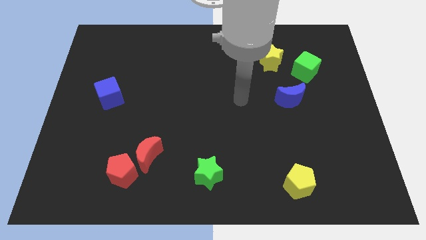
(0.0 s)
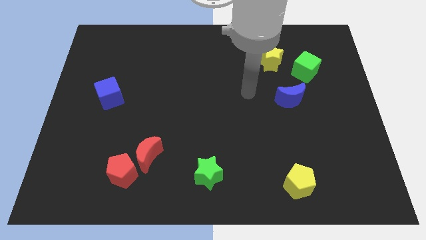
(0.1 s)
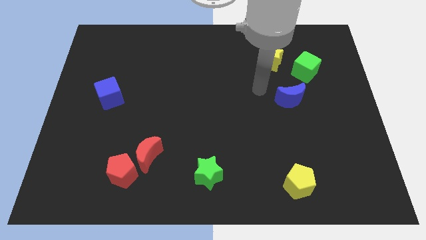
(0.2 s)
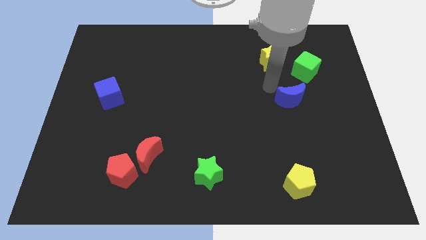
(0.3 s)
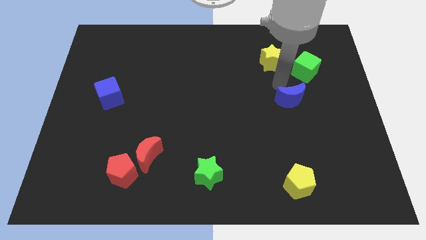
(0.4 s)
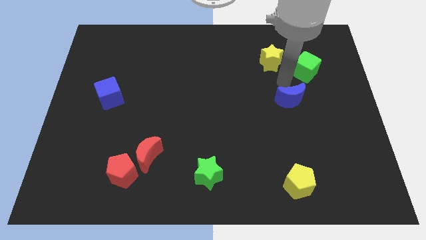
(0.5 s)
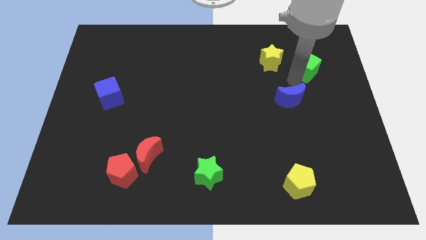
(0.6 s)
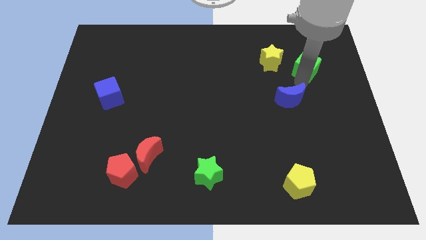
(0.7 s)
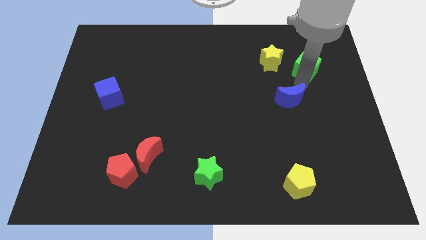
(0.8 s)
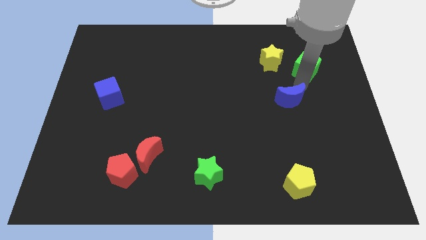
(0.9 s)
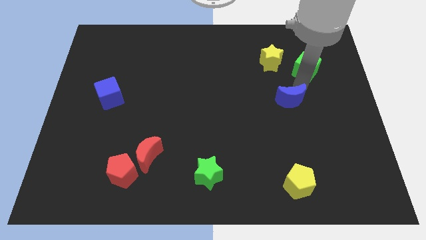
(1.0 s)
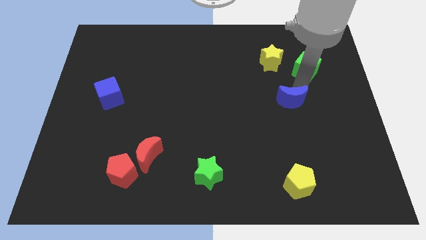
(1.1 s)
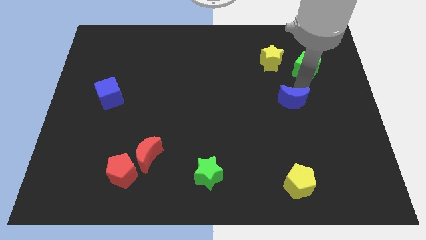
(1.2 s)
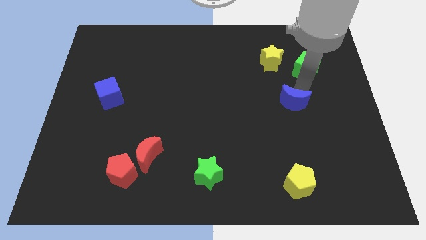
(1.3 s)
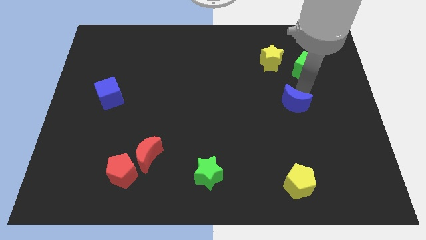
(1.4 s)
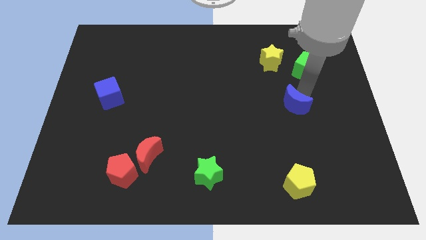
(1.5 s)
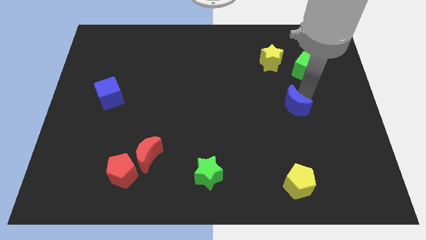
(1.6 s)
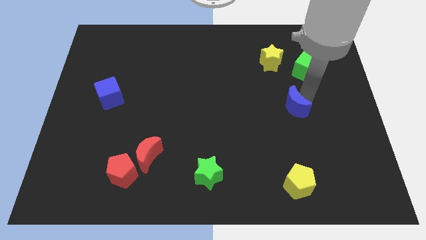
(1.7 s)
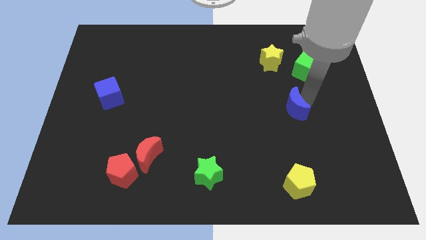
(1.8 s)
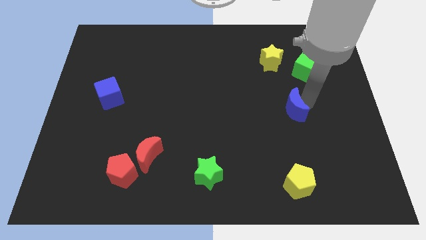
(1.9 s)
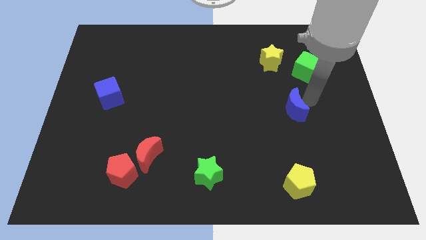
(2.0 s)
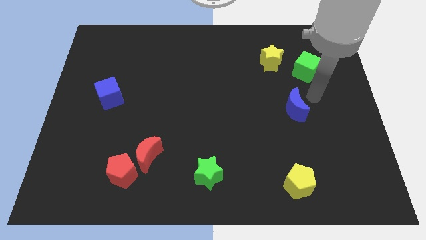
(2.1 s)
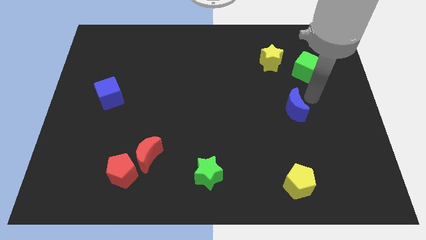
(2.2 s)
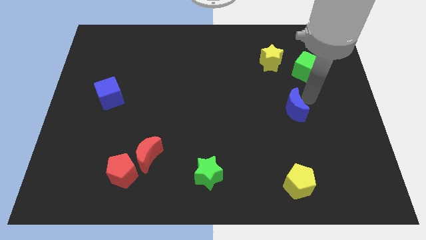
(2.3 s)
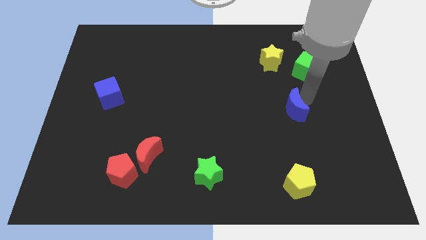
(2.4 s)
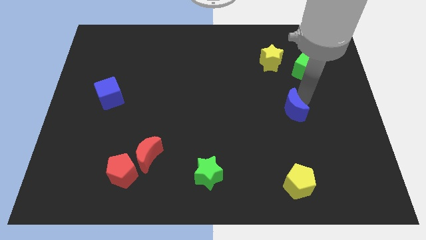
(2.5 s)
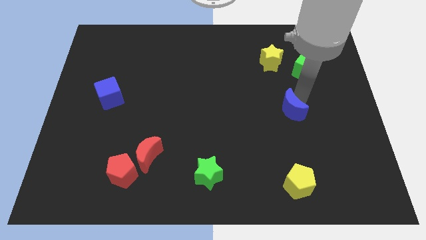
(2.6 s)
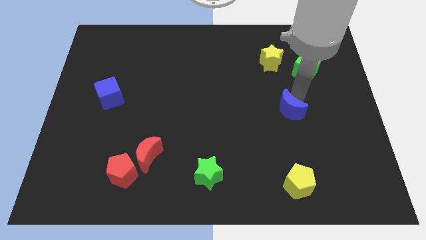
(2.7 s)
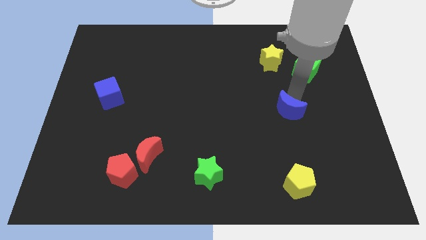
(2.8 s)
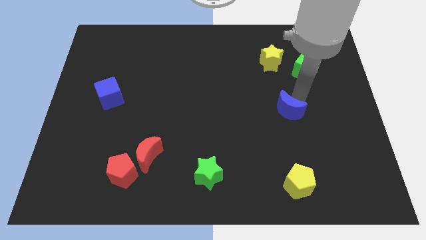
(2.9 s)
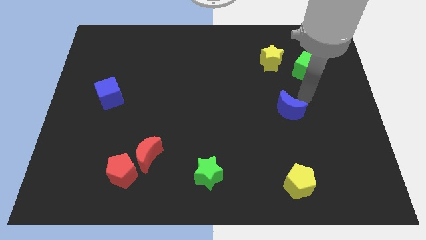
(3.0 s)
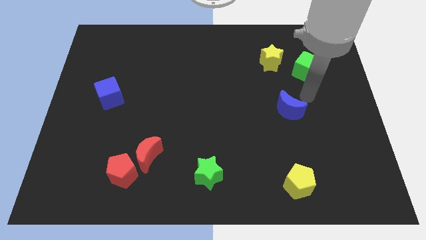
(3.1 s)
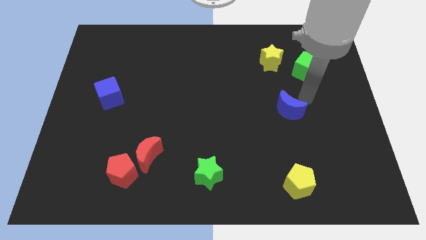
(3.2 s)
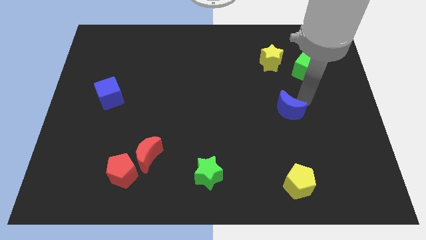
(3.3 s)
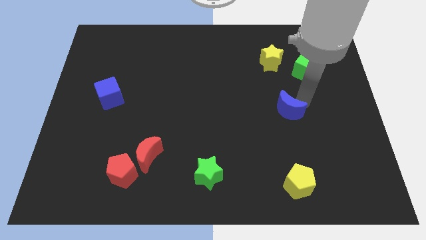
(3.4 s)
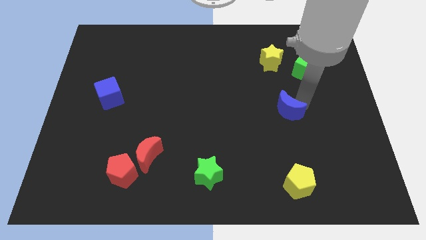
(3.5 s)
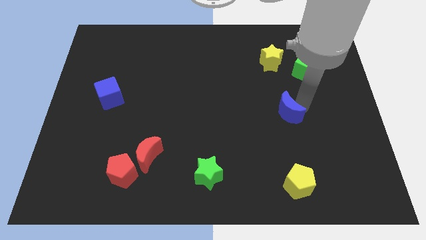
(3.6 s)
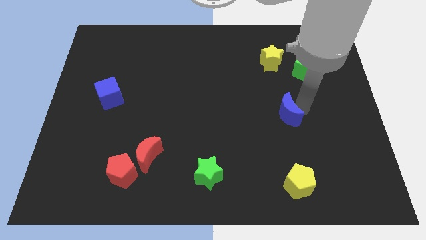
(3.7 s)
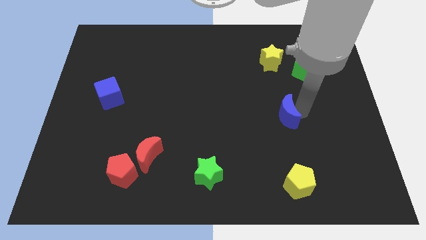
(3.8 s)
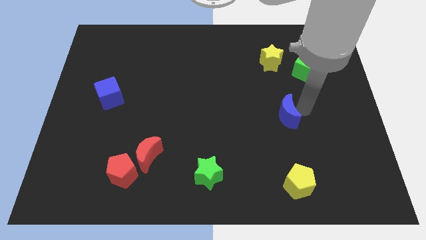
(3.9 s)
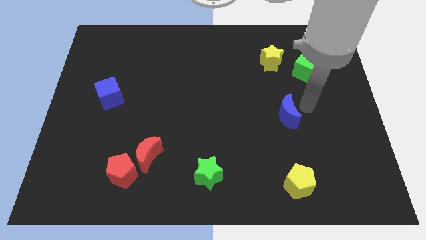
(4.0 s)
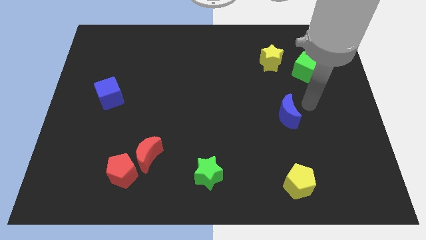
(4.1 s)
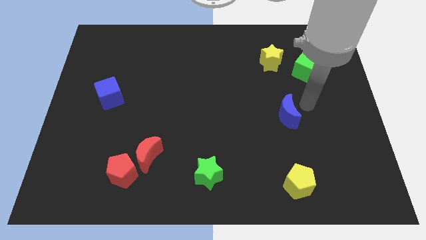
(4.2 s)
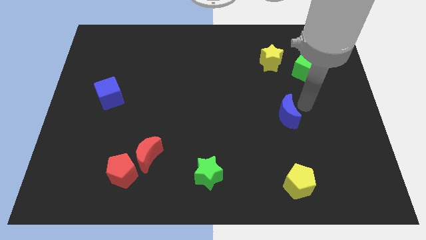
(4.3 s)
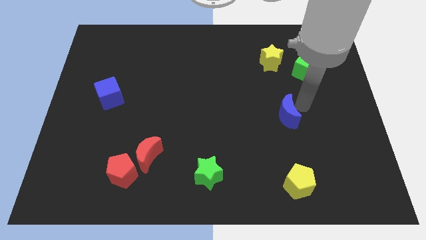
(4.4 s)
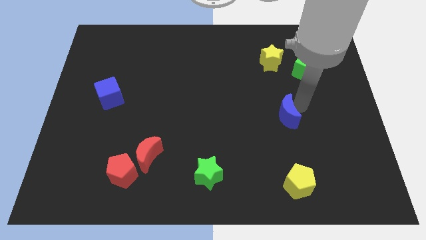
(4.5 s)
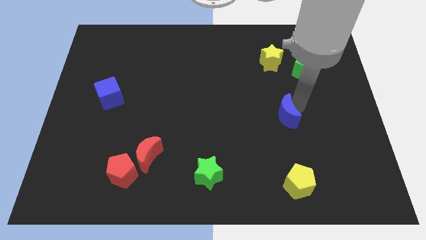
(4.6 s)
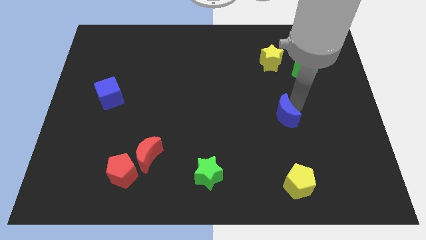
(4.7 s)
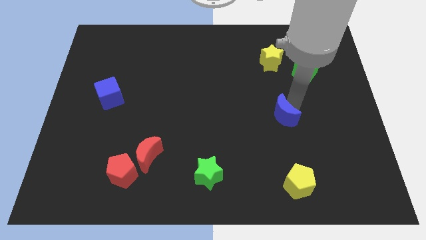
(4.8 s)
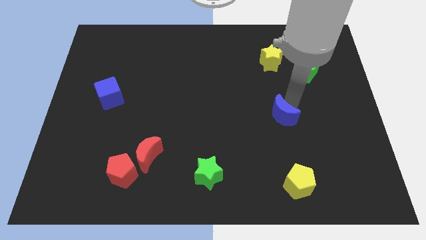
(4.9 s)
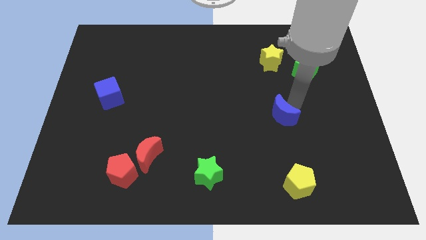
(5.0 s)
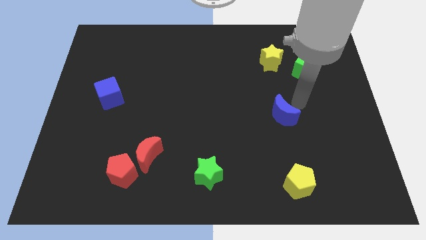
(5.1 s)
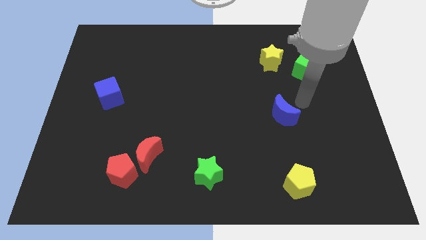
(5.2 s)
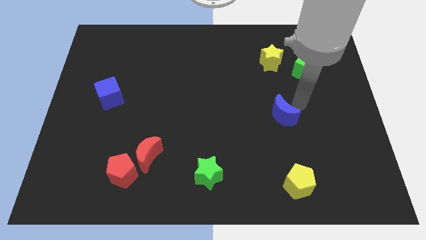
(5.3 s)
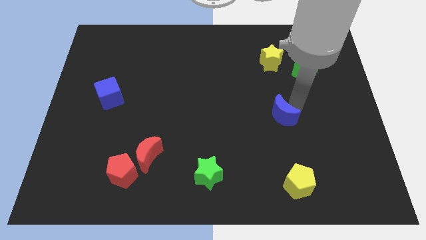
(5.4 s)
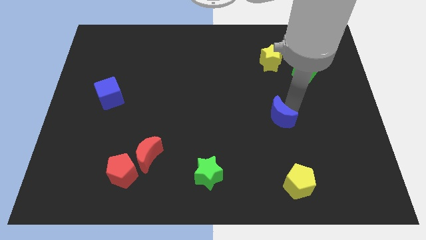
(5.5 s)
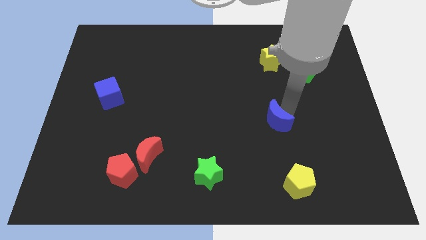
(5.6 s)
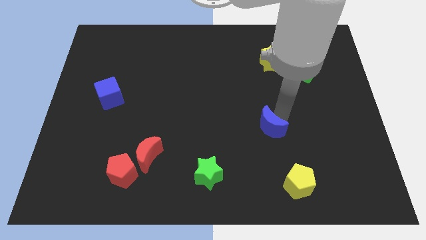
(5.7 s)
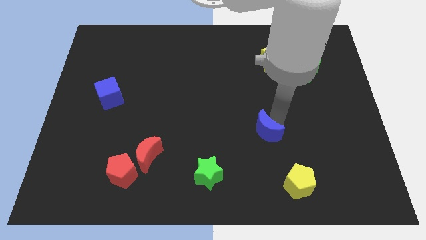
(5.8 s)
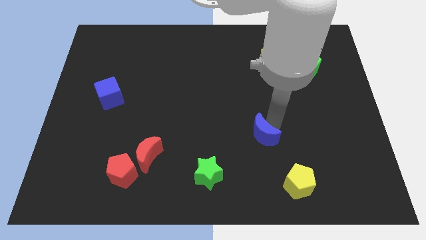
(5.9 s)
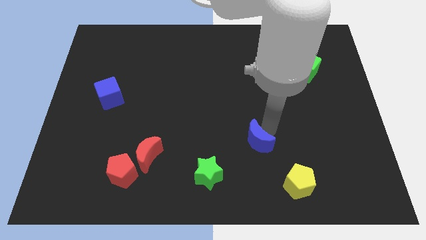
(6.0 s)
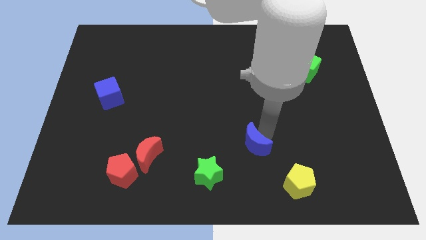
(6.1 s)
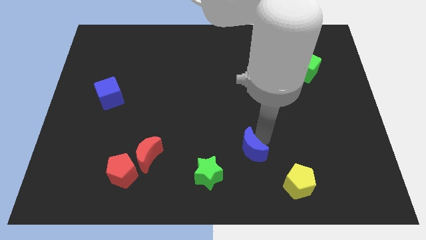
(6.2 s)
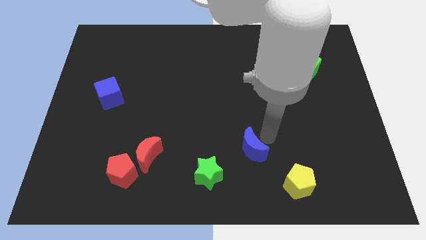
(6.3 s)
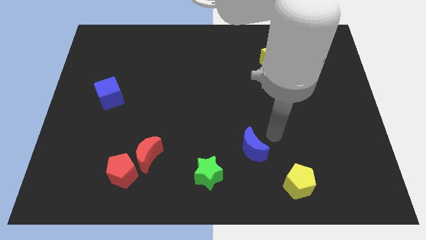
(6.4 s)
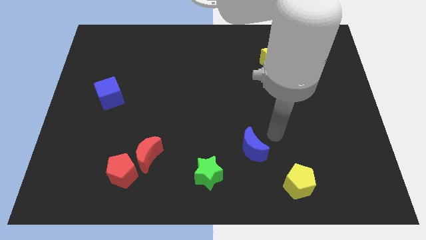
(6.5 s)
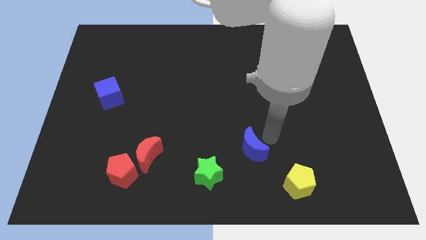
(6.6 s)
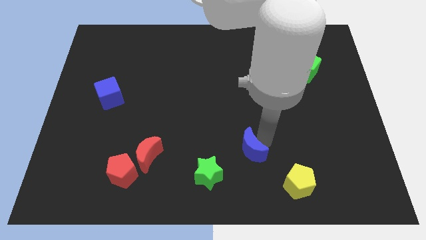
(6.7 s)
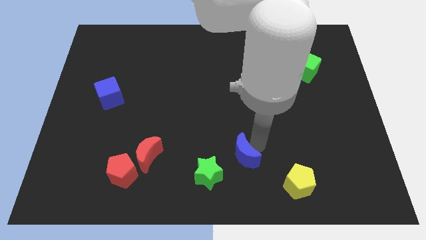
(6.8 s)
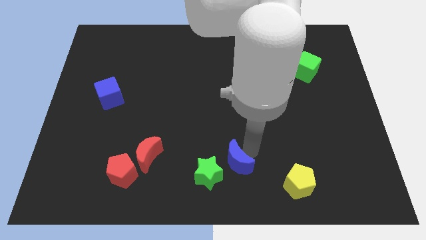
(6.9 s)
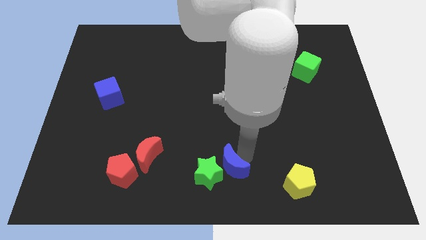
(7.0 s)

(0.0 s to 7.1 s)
put the blue moon close to the green star
